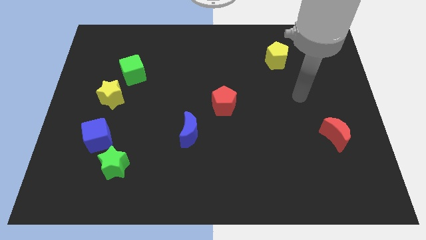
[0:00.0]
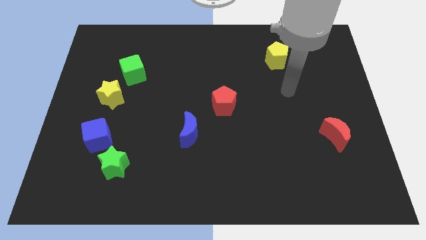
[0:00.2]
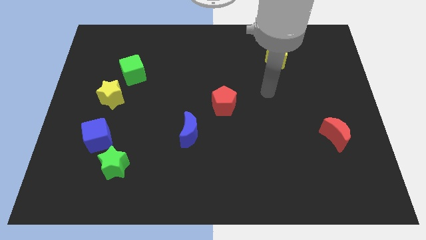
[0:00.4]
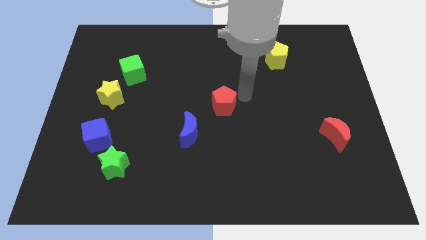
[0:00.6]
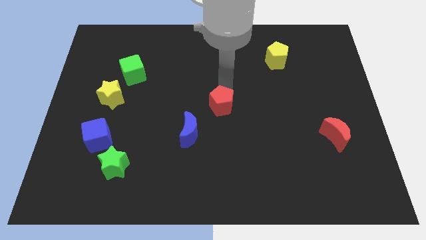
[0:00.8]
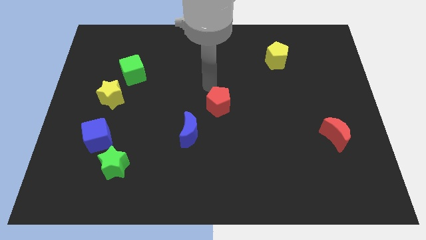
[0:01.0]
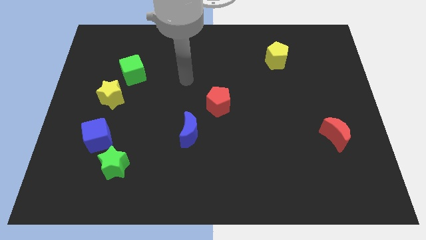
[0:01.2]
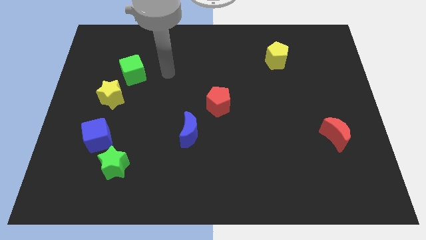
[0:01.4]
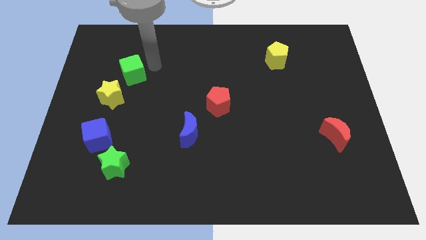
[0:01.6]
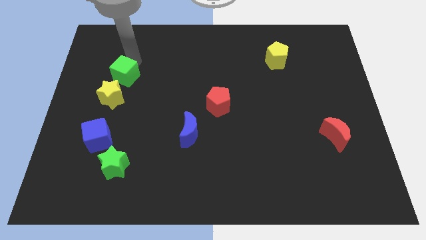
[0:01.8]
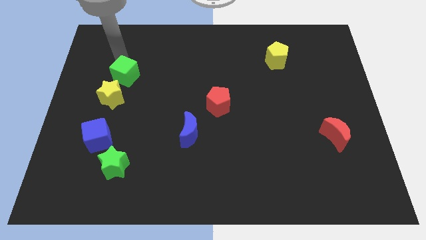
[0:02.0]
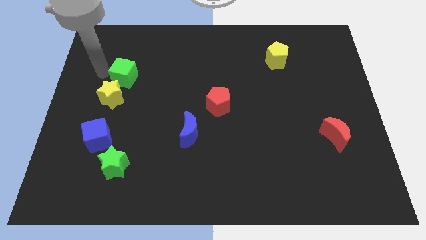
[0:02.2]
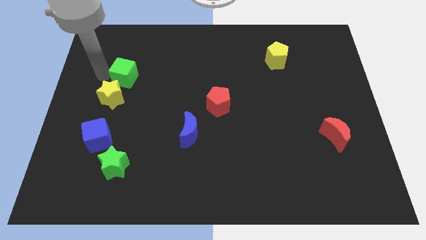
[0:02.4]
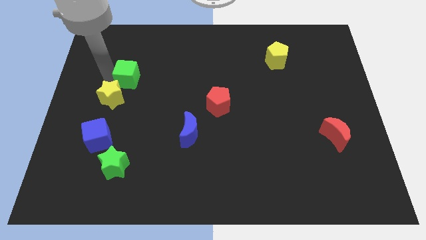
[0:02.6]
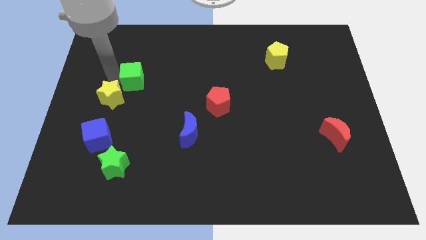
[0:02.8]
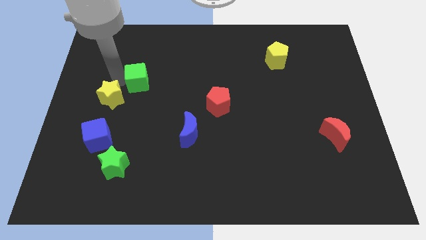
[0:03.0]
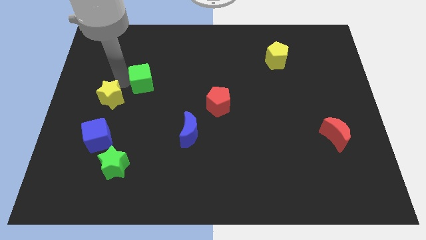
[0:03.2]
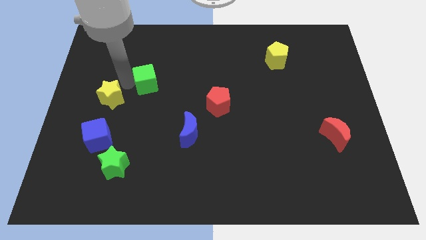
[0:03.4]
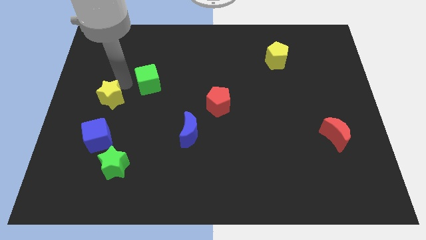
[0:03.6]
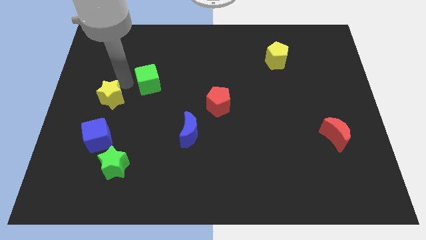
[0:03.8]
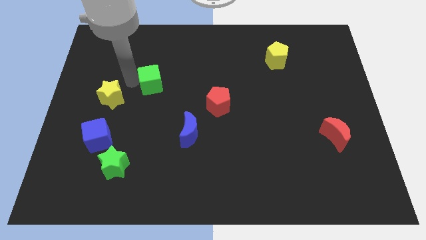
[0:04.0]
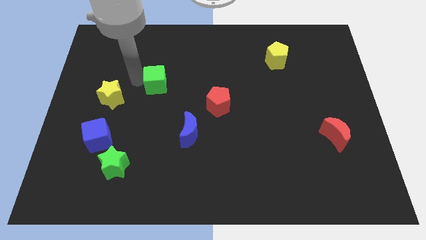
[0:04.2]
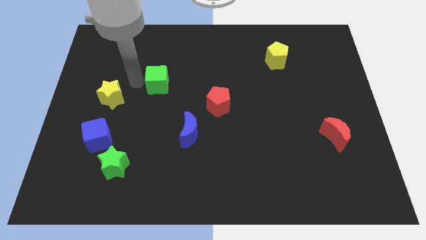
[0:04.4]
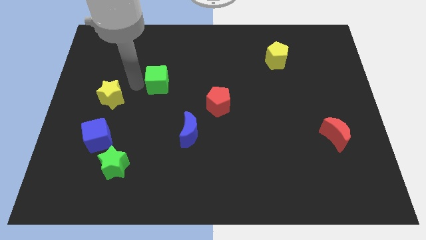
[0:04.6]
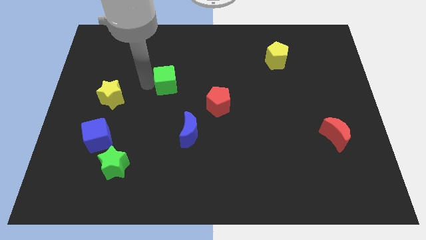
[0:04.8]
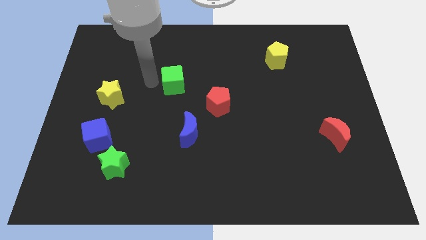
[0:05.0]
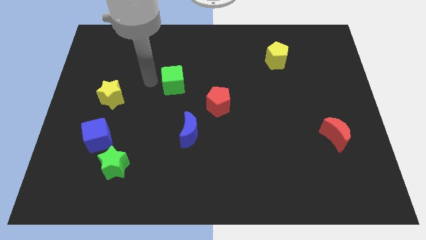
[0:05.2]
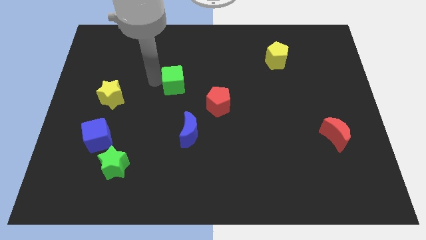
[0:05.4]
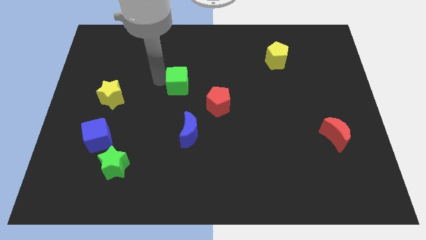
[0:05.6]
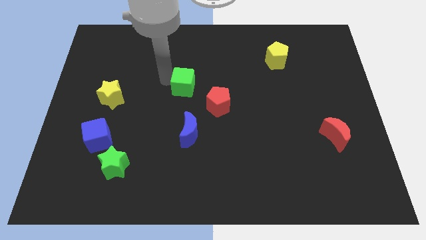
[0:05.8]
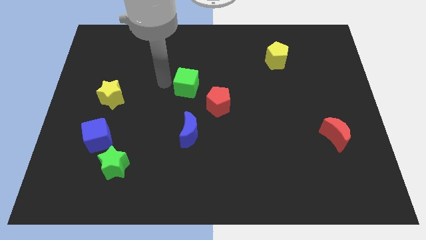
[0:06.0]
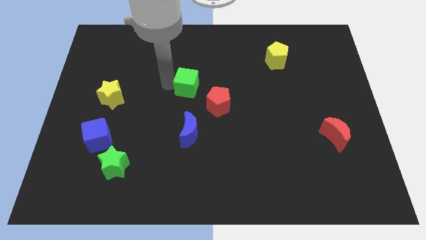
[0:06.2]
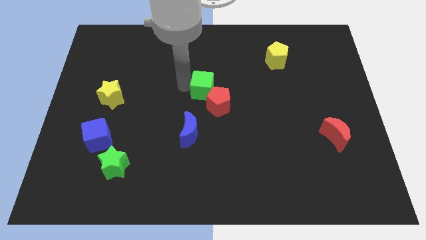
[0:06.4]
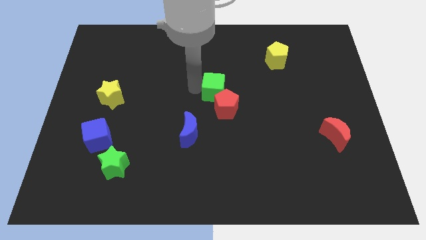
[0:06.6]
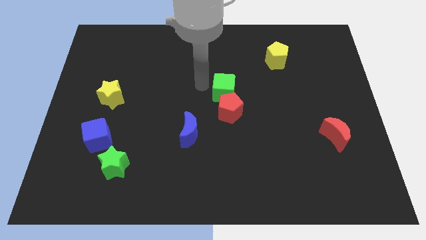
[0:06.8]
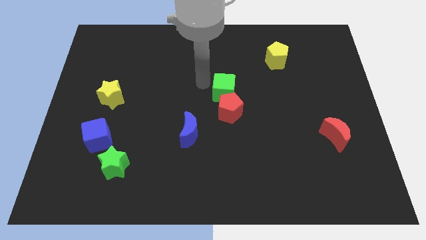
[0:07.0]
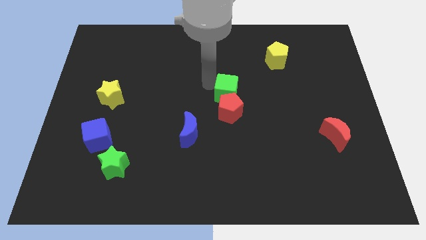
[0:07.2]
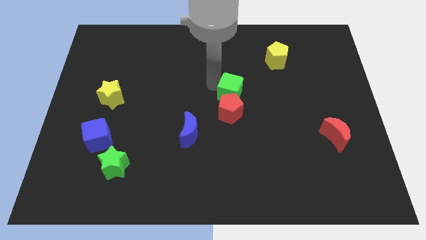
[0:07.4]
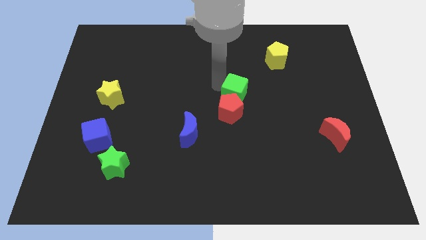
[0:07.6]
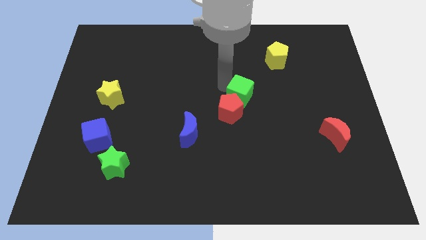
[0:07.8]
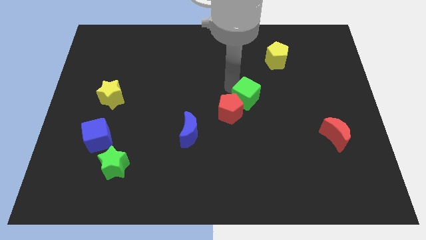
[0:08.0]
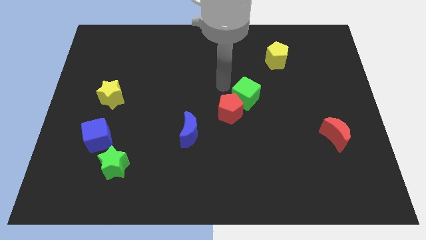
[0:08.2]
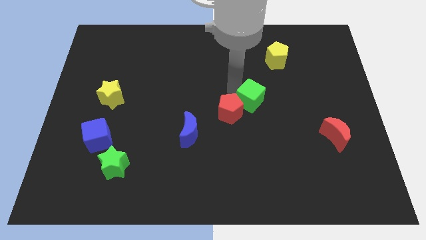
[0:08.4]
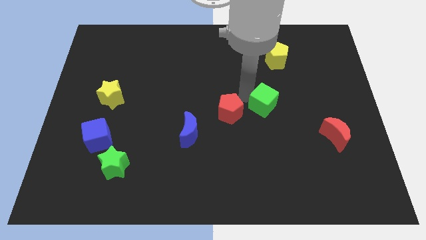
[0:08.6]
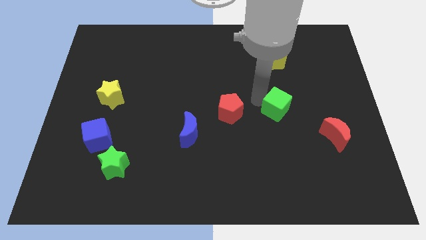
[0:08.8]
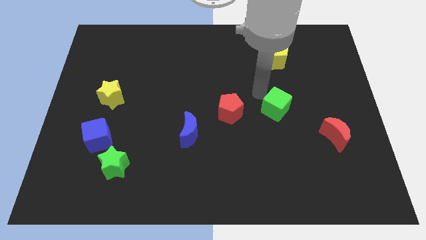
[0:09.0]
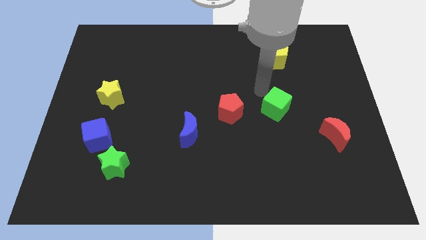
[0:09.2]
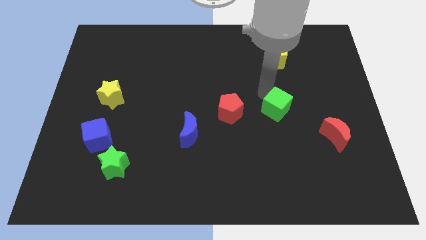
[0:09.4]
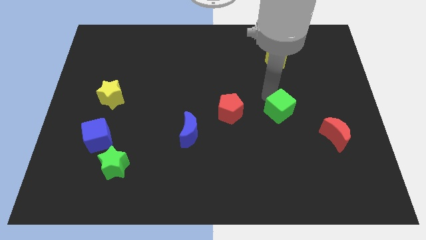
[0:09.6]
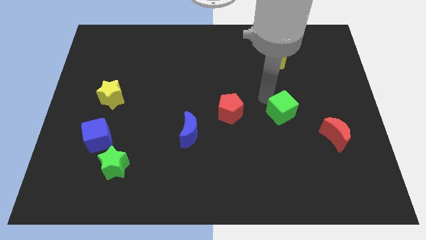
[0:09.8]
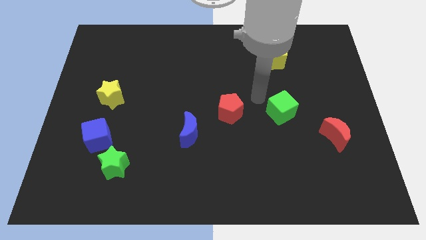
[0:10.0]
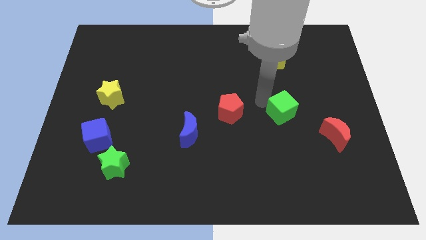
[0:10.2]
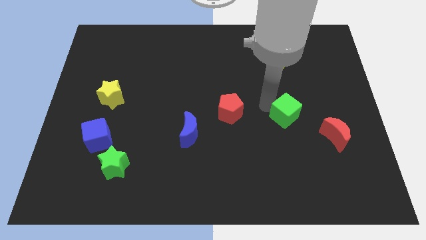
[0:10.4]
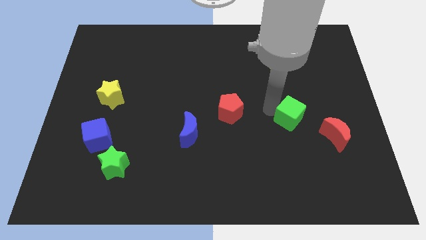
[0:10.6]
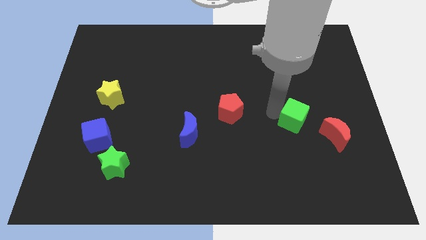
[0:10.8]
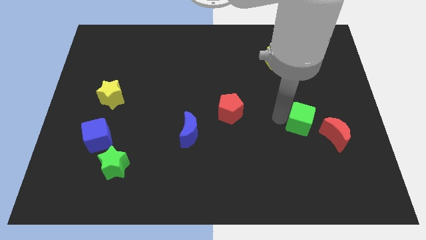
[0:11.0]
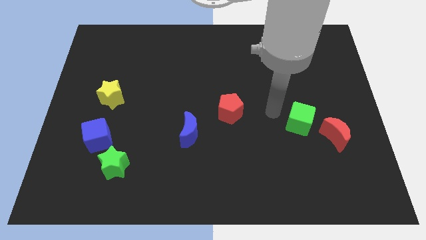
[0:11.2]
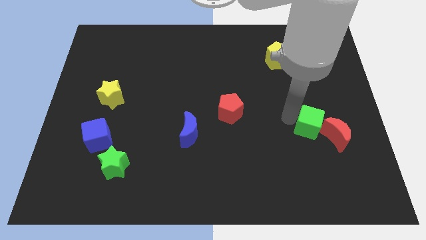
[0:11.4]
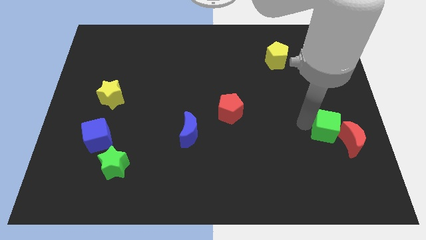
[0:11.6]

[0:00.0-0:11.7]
slide the green cube to the red moon

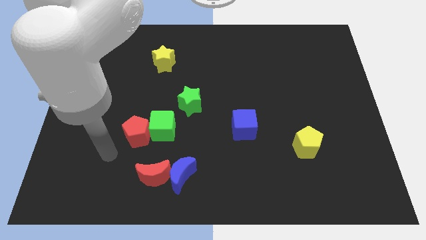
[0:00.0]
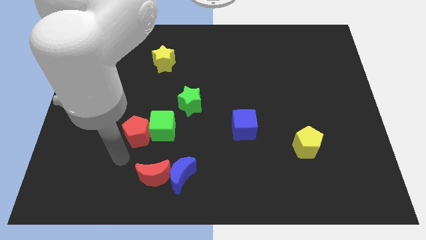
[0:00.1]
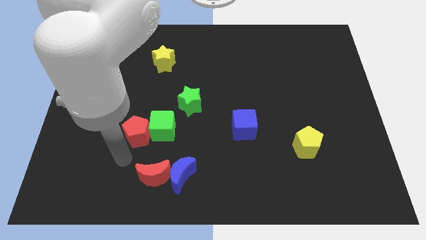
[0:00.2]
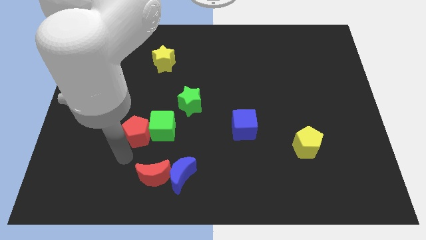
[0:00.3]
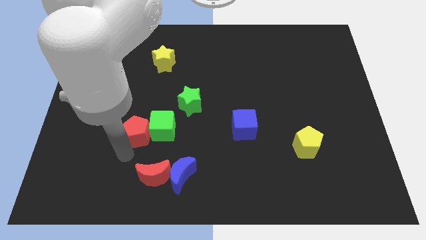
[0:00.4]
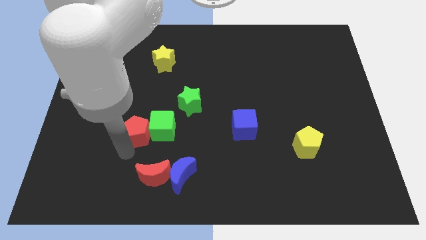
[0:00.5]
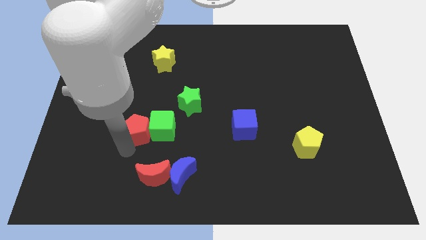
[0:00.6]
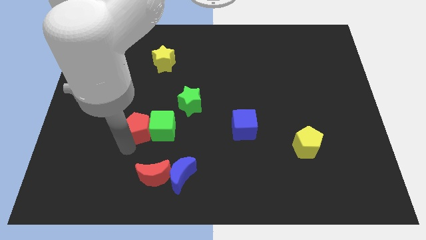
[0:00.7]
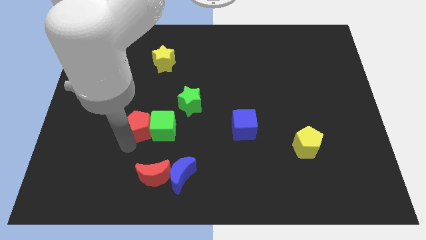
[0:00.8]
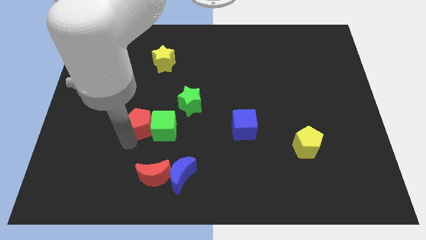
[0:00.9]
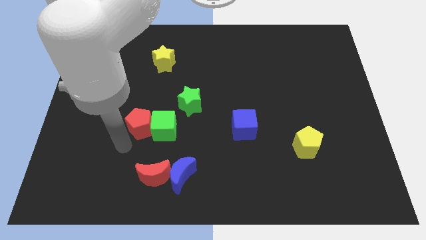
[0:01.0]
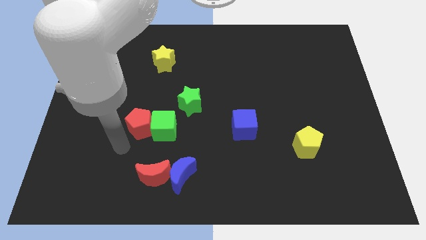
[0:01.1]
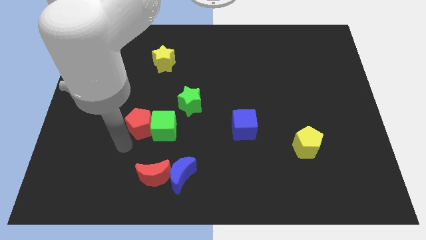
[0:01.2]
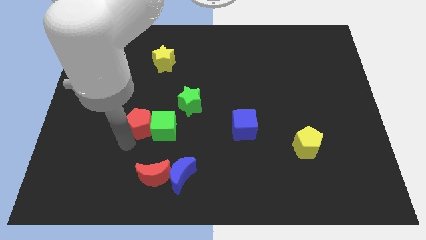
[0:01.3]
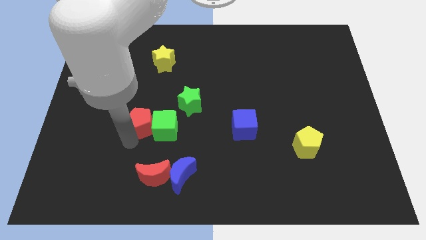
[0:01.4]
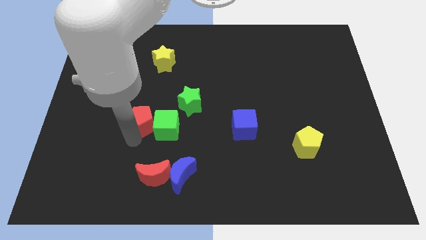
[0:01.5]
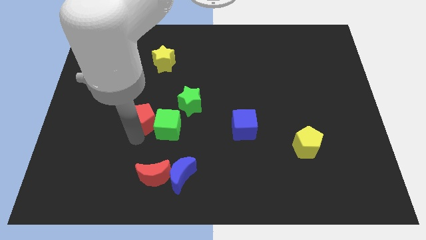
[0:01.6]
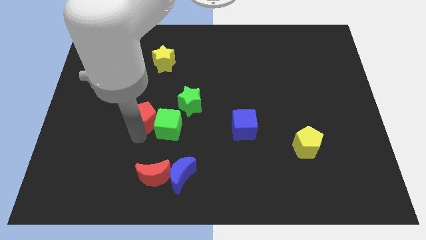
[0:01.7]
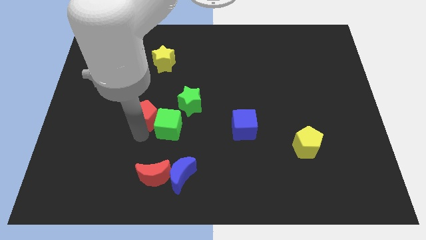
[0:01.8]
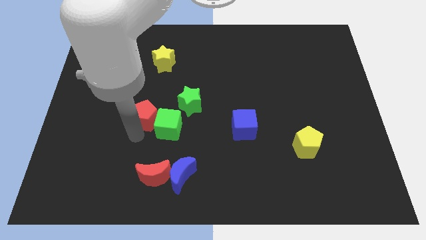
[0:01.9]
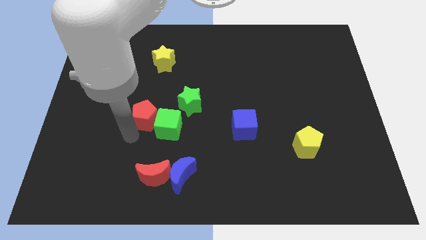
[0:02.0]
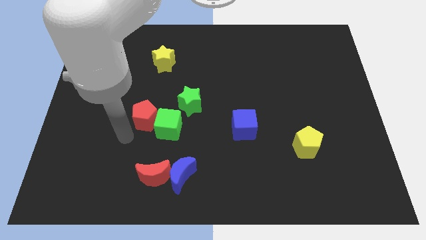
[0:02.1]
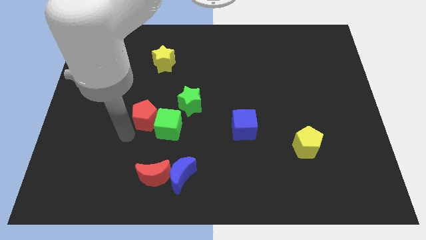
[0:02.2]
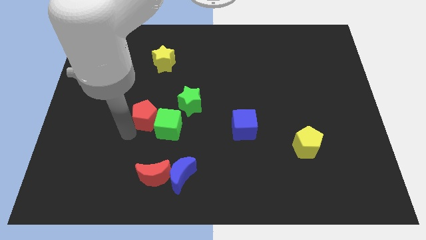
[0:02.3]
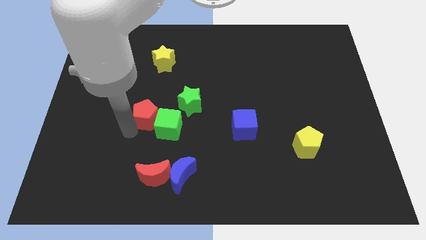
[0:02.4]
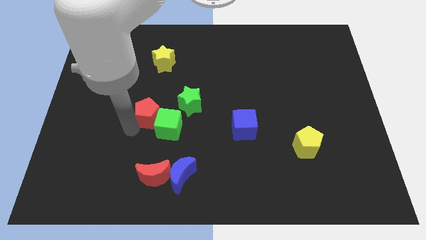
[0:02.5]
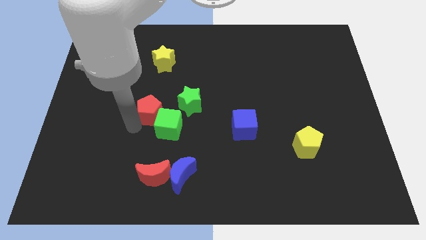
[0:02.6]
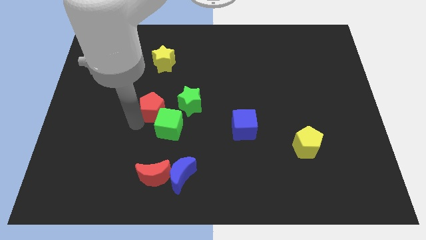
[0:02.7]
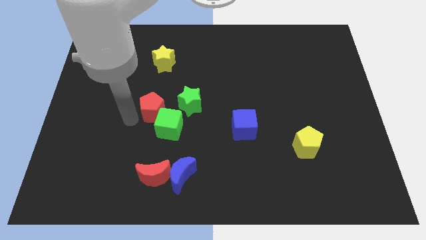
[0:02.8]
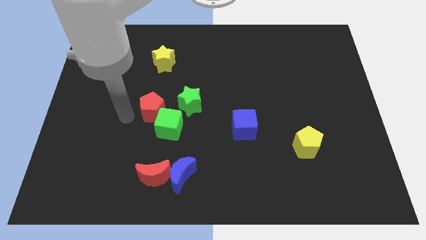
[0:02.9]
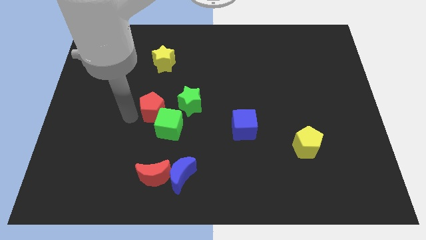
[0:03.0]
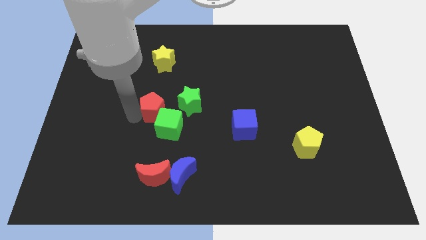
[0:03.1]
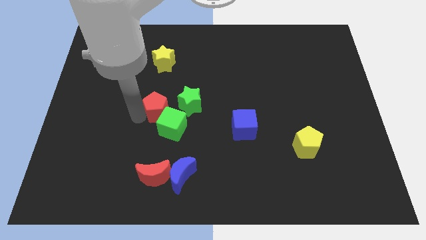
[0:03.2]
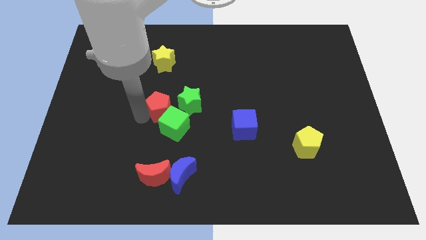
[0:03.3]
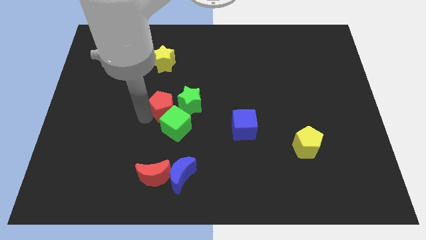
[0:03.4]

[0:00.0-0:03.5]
put the red pentagon towards the green star
